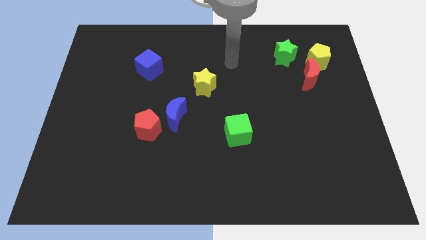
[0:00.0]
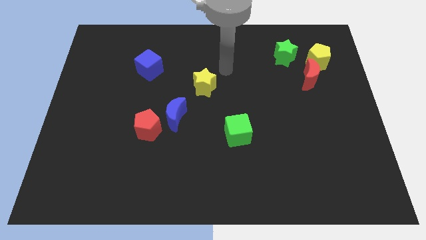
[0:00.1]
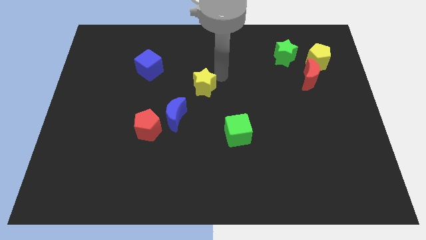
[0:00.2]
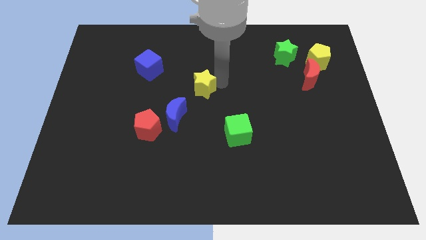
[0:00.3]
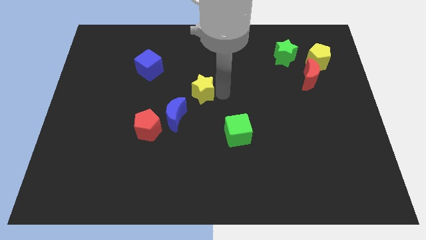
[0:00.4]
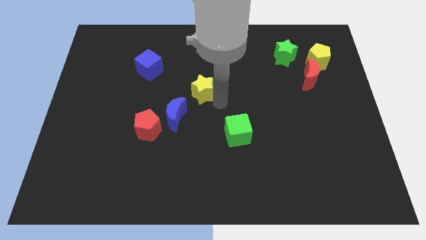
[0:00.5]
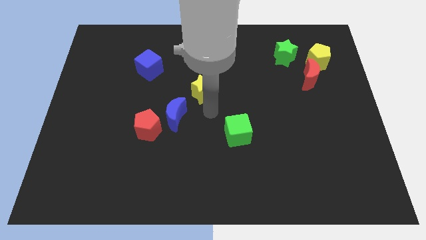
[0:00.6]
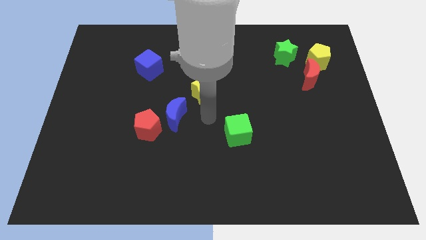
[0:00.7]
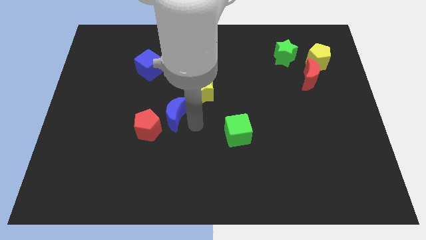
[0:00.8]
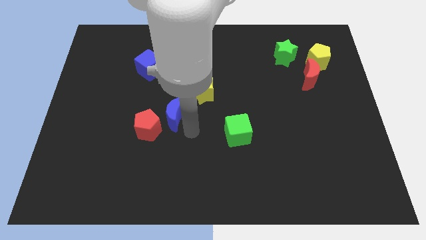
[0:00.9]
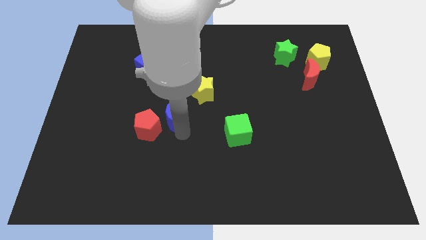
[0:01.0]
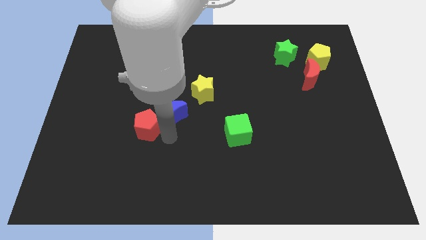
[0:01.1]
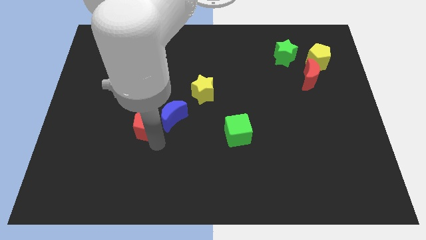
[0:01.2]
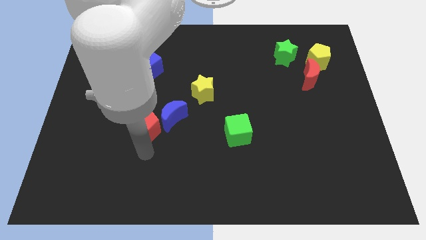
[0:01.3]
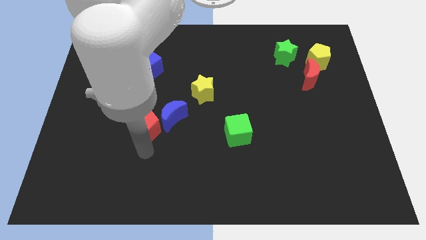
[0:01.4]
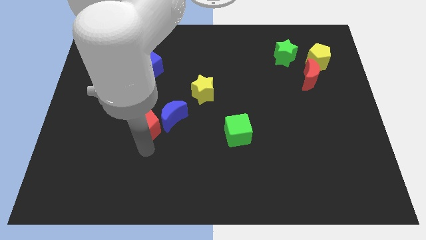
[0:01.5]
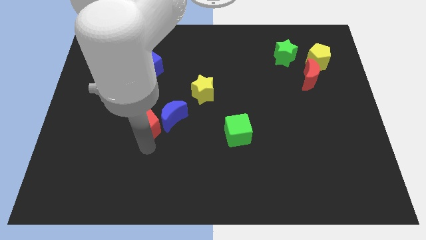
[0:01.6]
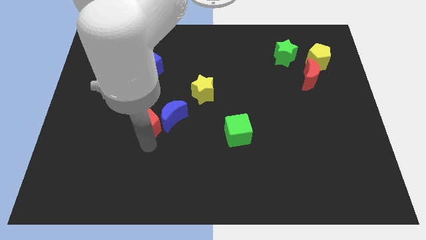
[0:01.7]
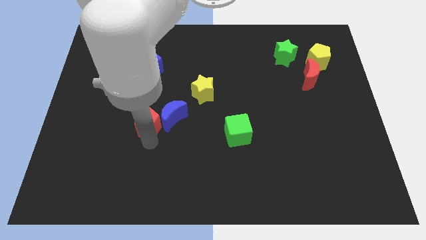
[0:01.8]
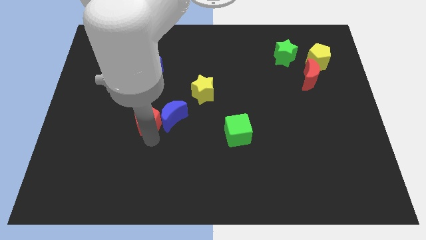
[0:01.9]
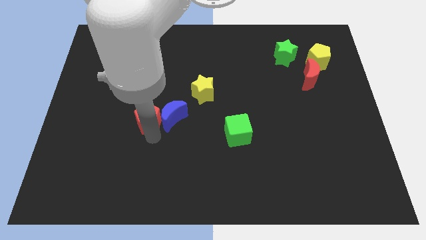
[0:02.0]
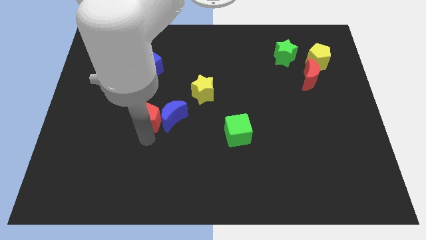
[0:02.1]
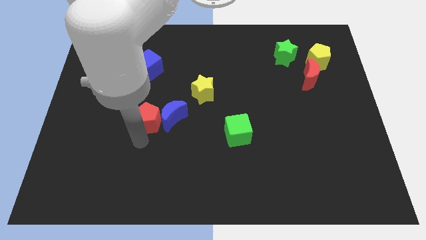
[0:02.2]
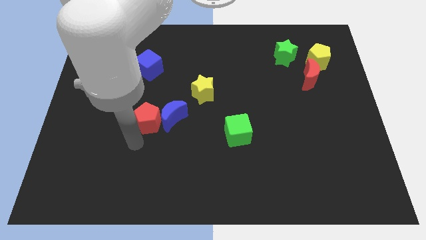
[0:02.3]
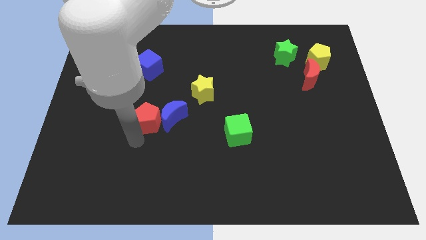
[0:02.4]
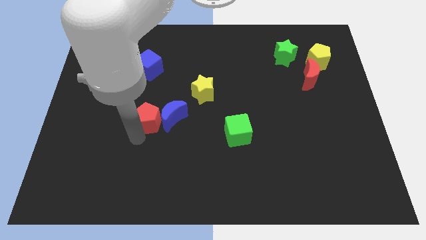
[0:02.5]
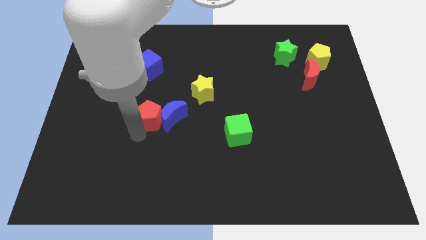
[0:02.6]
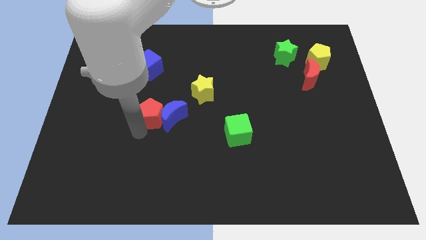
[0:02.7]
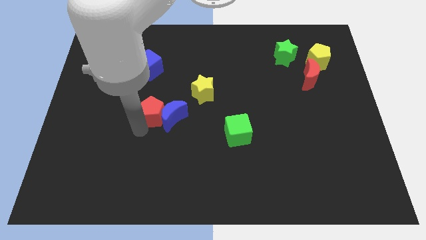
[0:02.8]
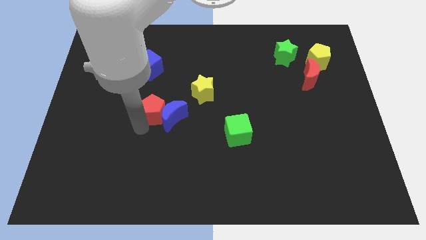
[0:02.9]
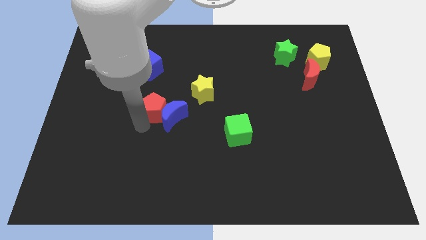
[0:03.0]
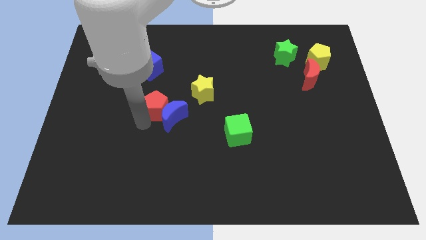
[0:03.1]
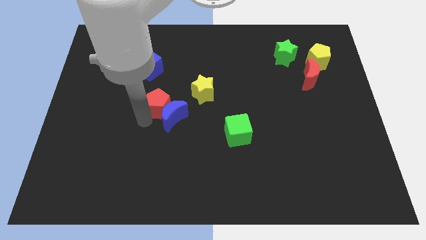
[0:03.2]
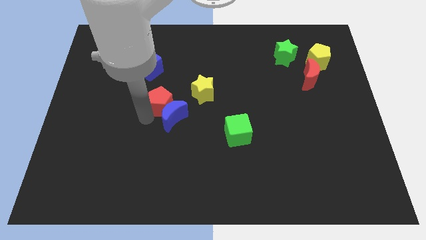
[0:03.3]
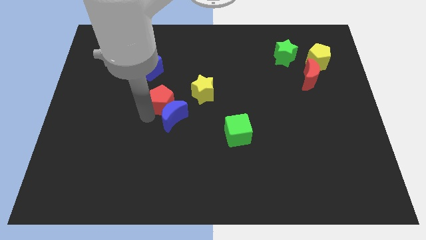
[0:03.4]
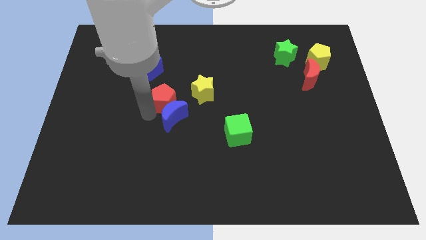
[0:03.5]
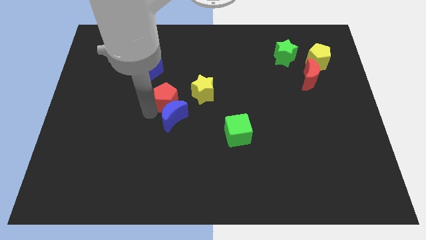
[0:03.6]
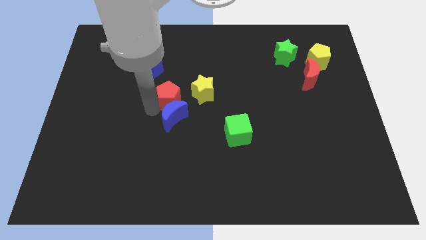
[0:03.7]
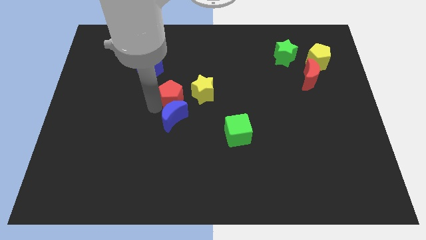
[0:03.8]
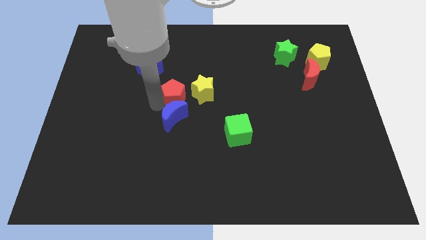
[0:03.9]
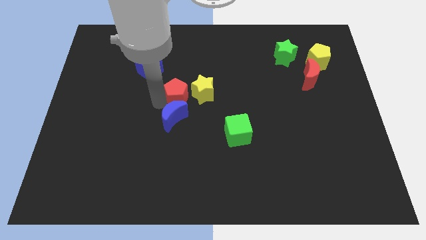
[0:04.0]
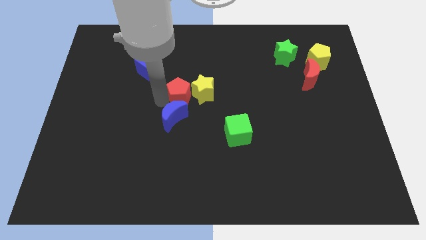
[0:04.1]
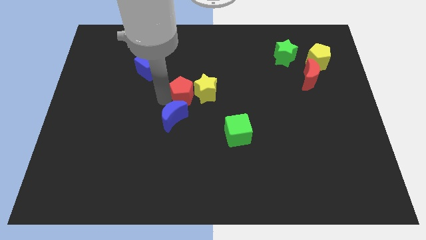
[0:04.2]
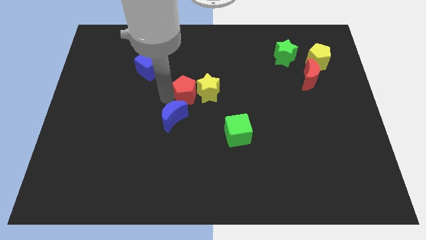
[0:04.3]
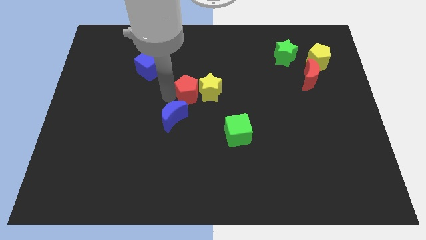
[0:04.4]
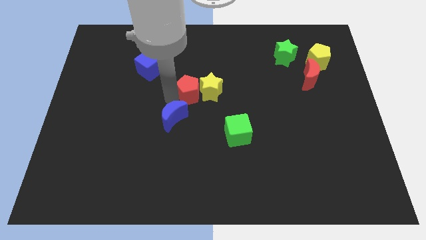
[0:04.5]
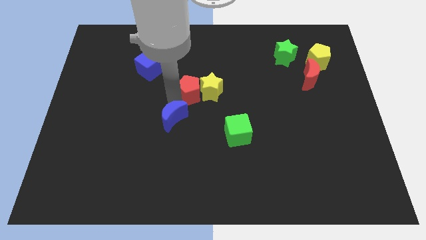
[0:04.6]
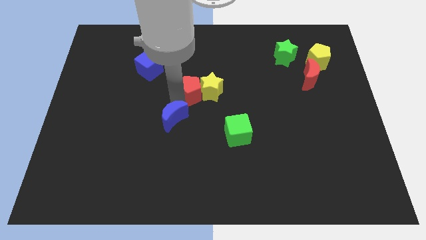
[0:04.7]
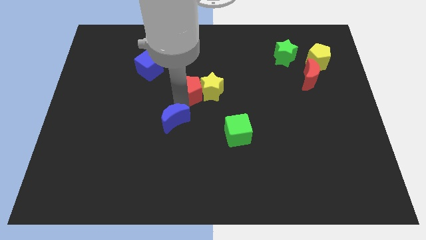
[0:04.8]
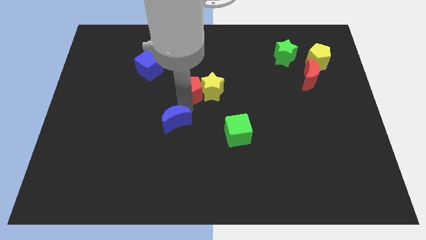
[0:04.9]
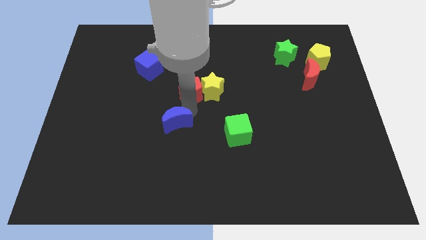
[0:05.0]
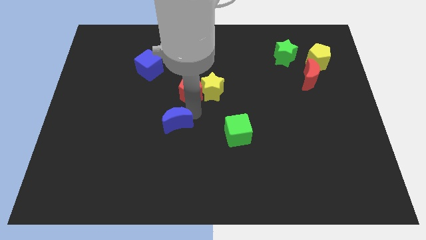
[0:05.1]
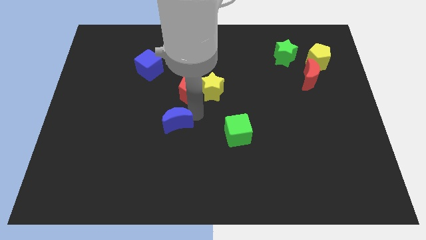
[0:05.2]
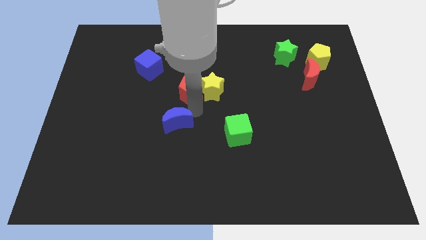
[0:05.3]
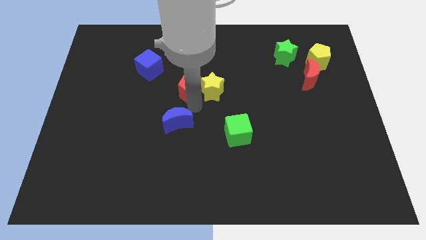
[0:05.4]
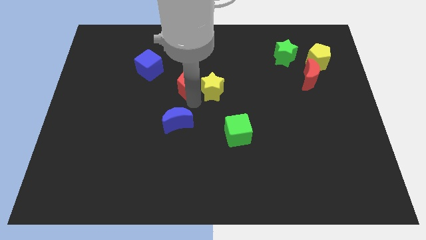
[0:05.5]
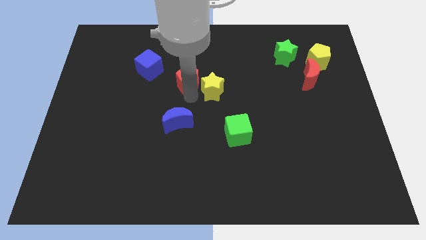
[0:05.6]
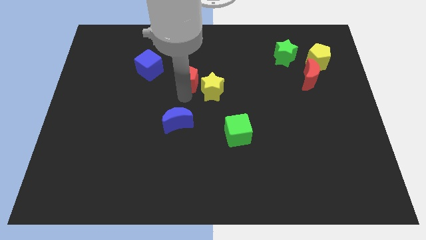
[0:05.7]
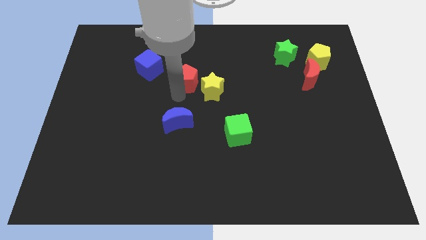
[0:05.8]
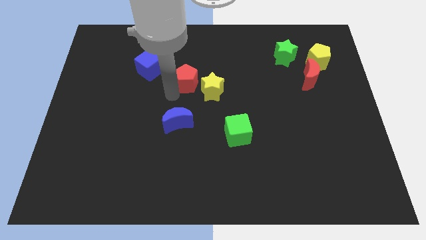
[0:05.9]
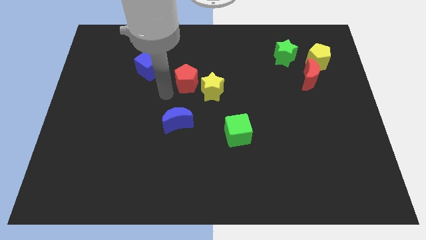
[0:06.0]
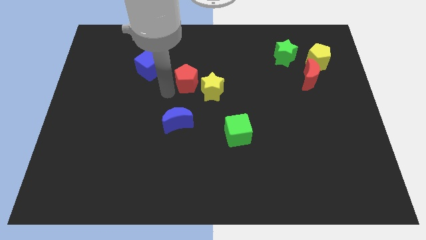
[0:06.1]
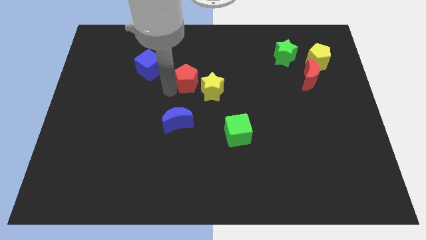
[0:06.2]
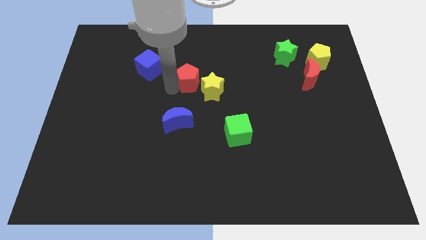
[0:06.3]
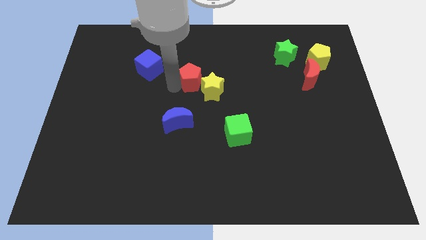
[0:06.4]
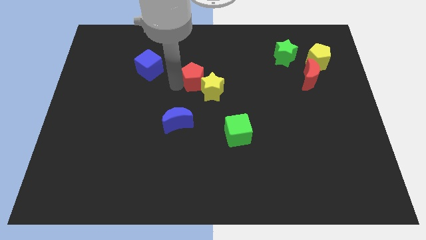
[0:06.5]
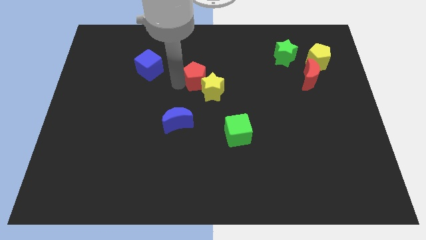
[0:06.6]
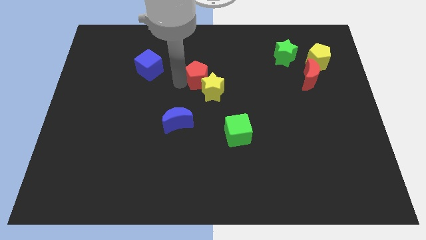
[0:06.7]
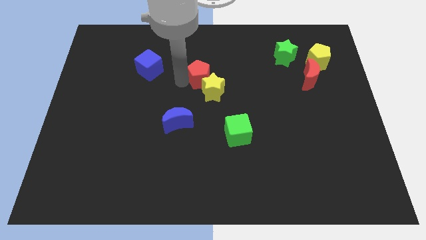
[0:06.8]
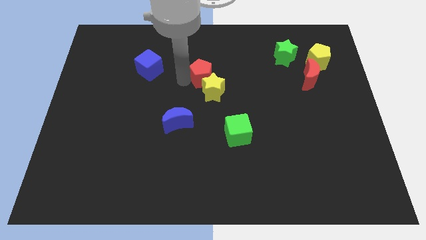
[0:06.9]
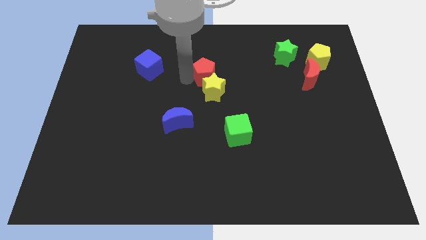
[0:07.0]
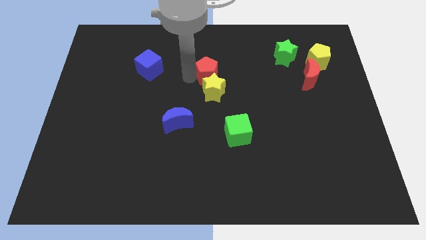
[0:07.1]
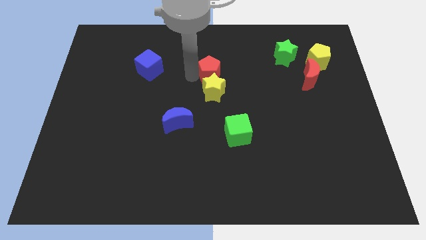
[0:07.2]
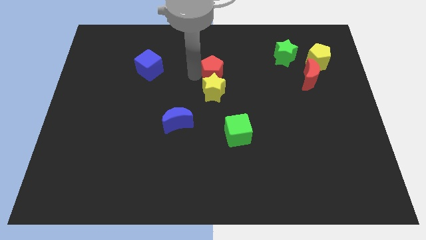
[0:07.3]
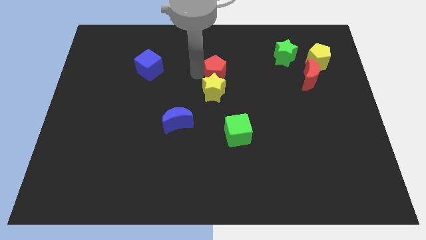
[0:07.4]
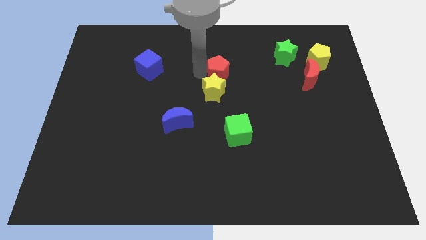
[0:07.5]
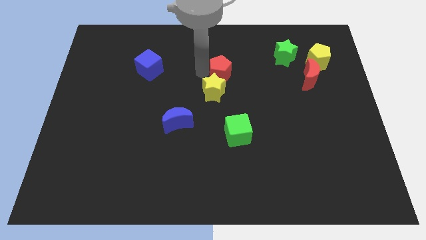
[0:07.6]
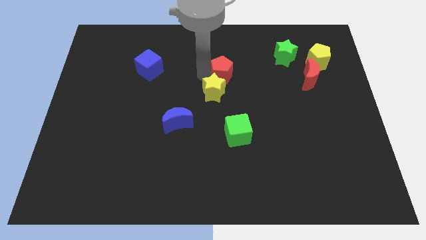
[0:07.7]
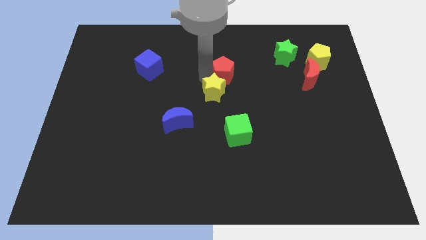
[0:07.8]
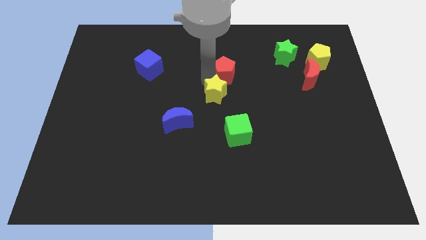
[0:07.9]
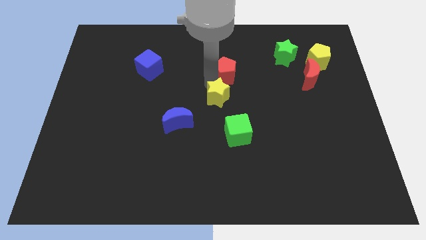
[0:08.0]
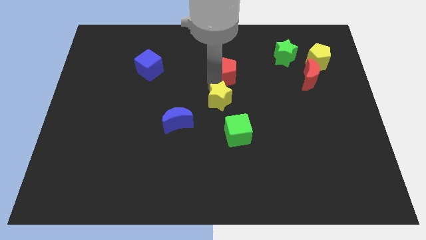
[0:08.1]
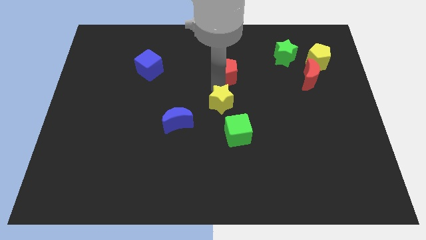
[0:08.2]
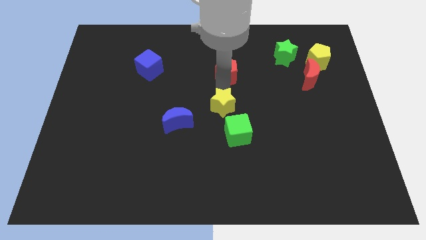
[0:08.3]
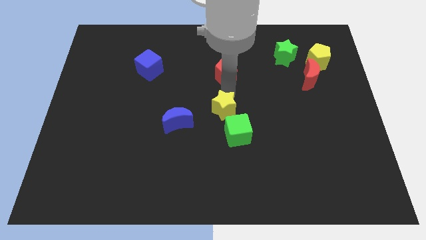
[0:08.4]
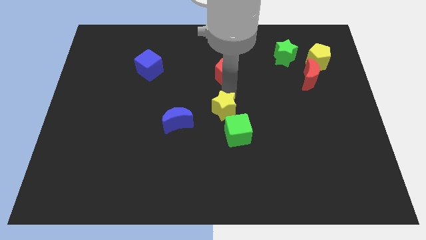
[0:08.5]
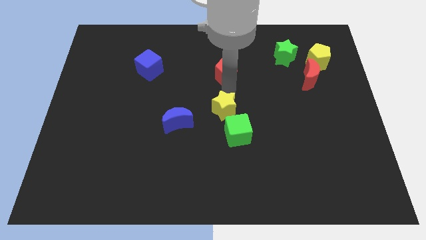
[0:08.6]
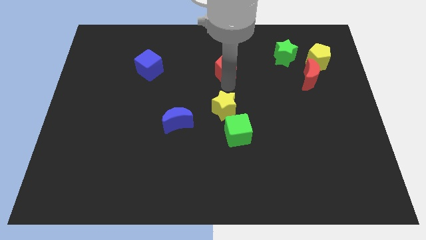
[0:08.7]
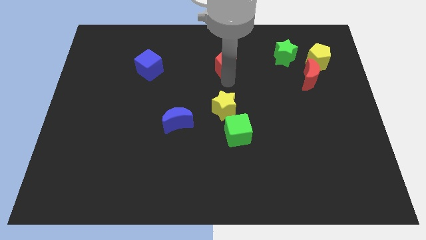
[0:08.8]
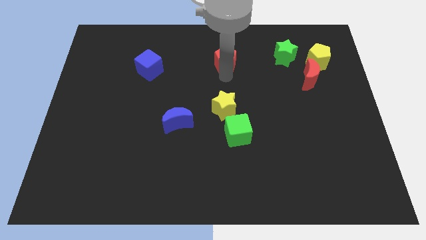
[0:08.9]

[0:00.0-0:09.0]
move the red pentagon just left of the green star
